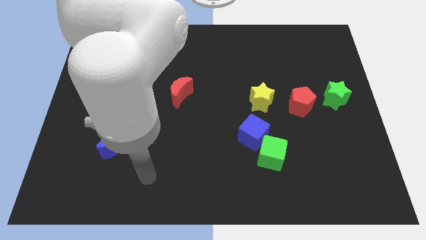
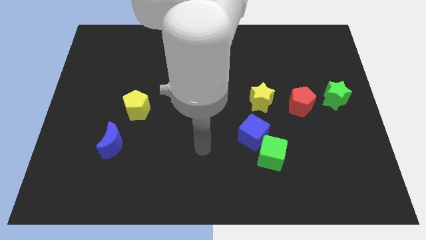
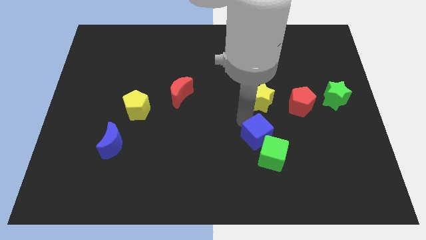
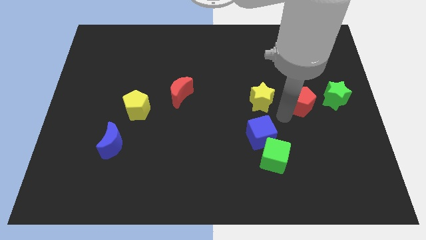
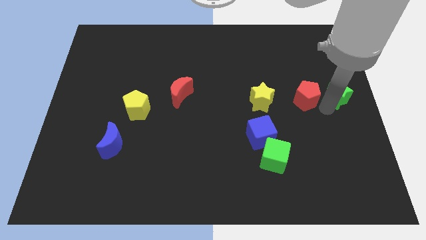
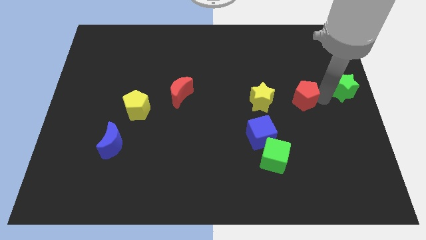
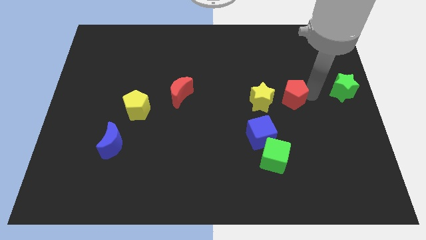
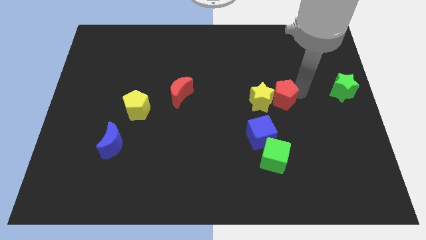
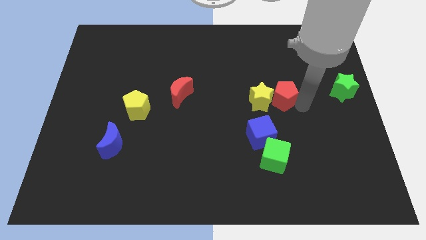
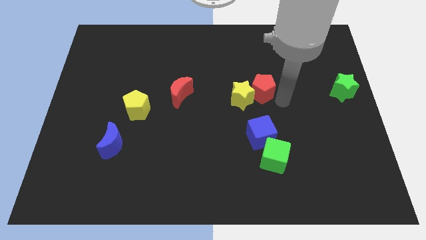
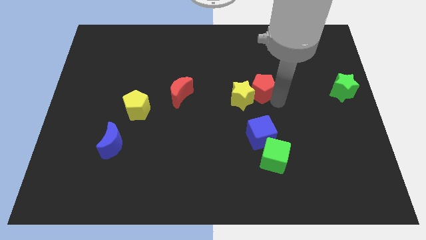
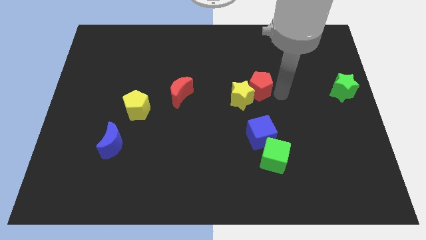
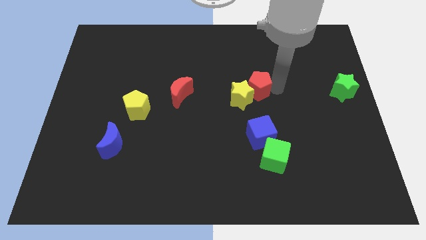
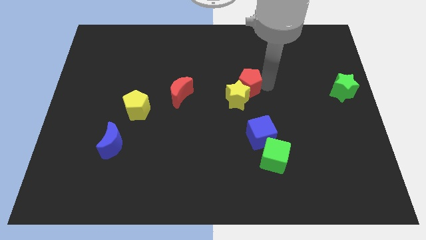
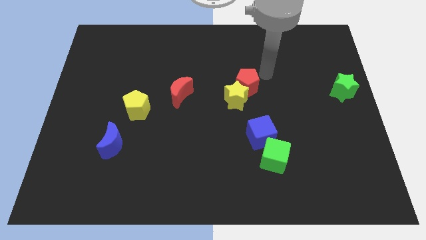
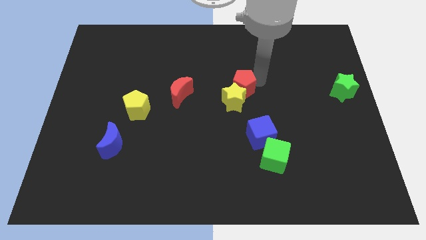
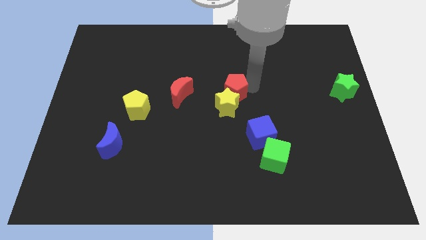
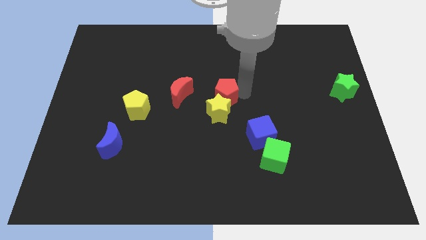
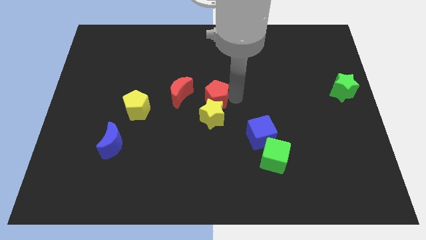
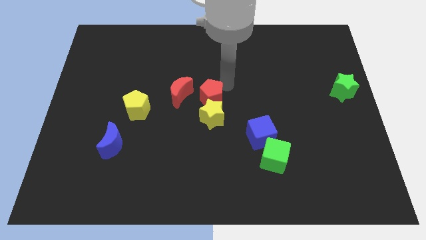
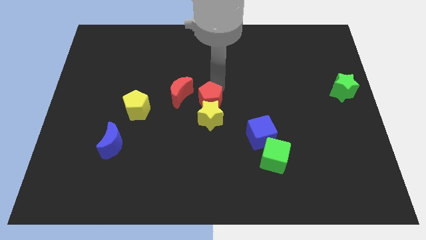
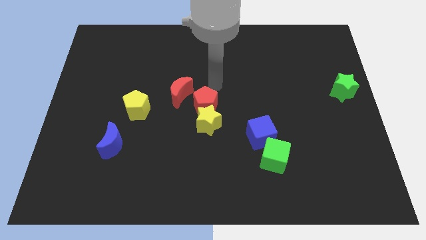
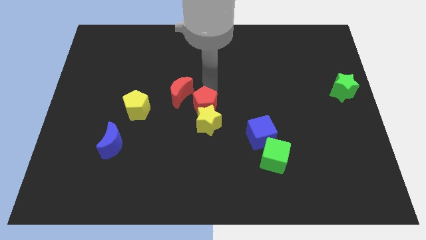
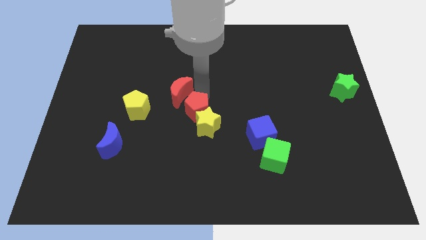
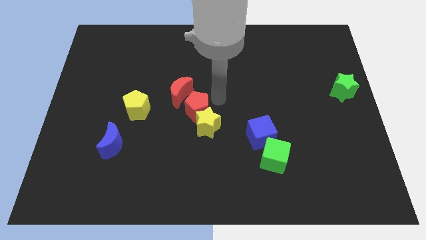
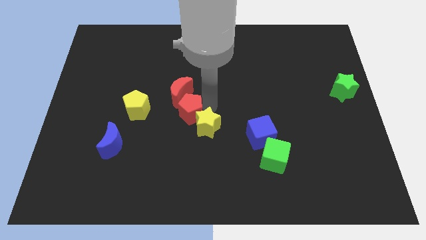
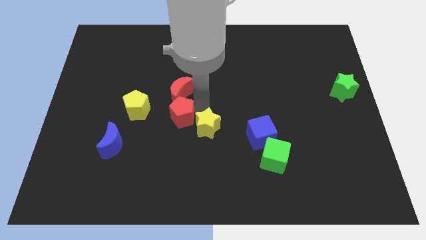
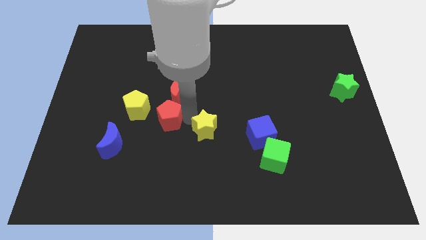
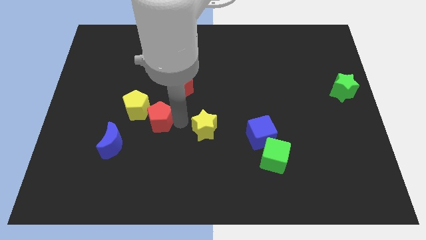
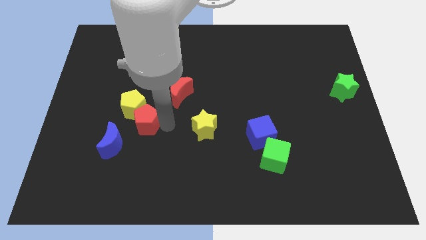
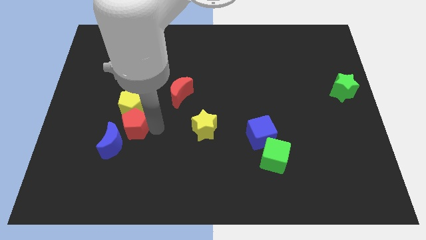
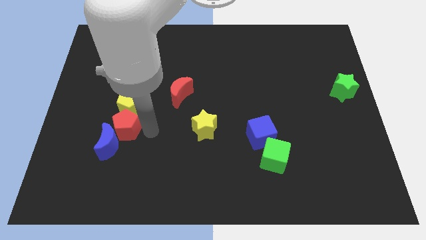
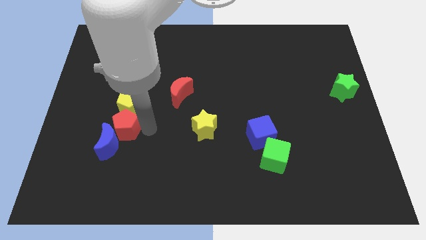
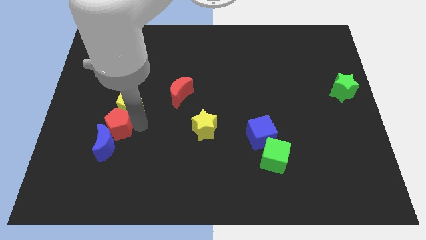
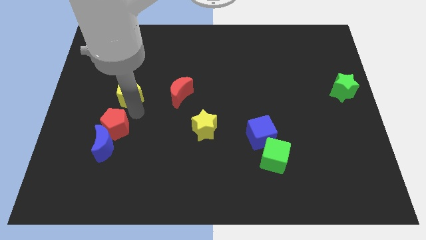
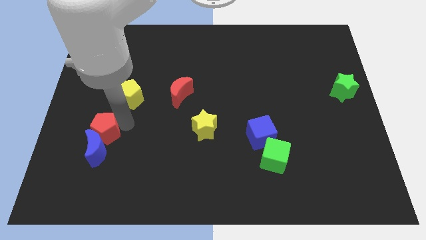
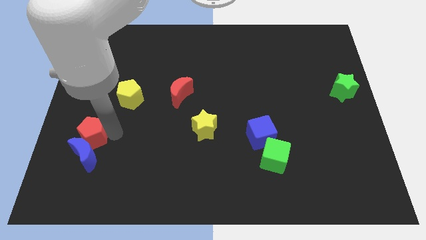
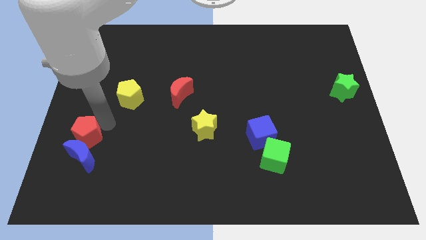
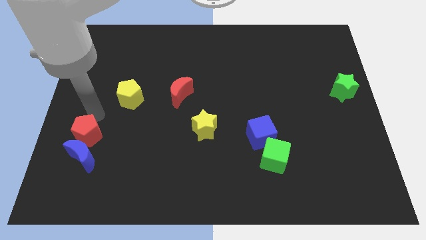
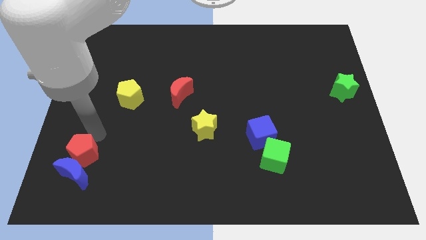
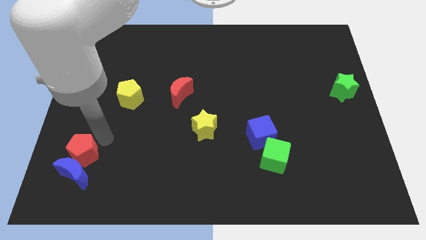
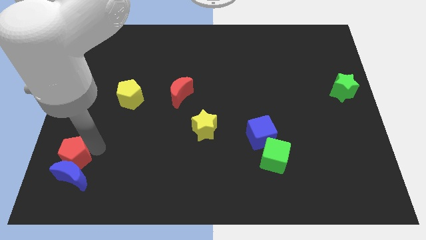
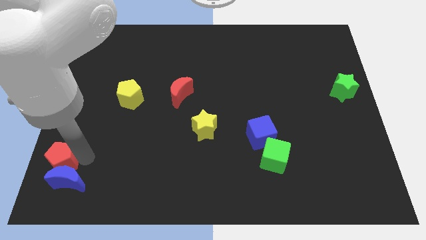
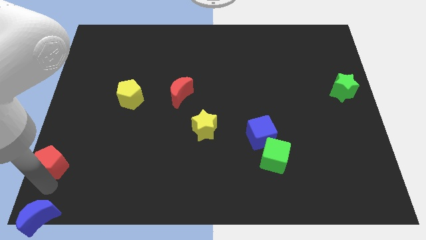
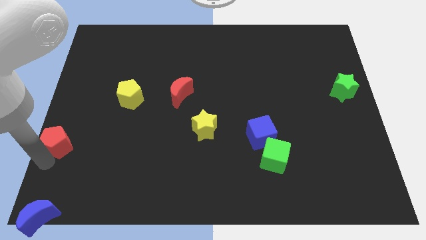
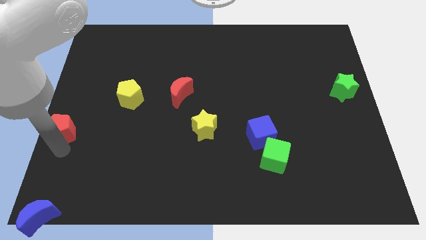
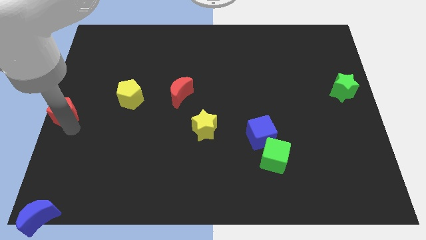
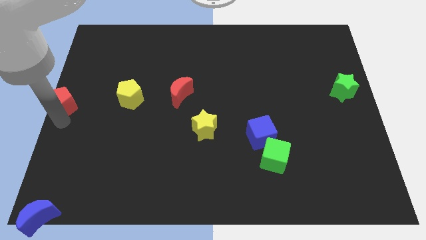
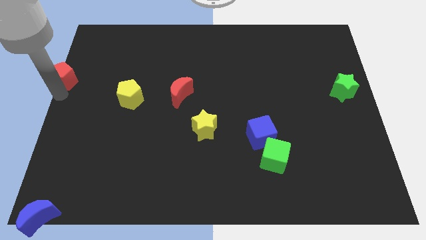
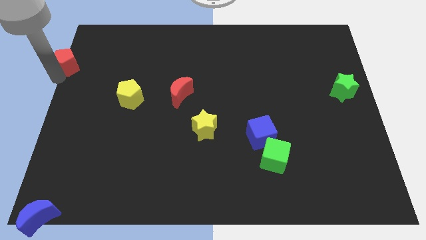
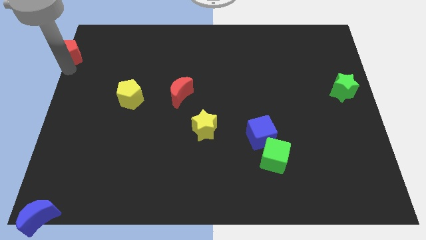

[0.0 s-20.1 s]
push the red pentagon to the top left corner

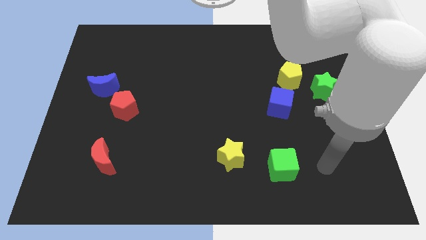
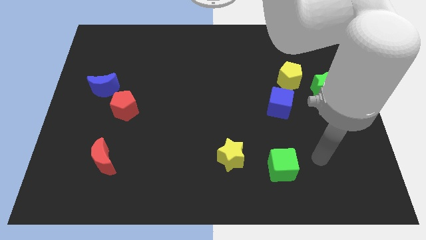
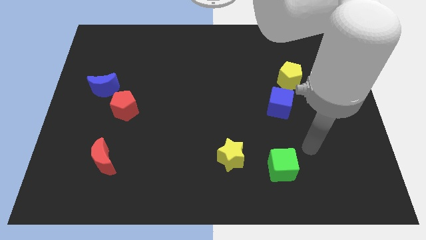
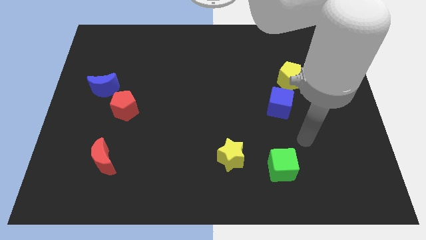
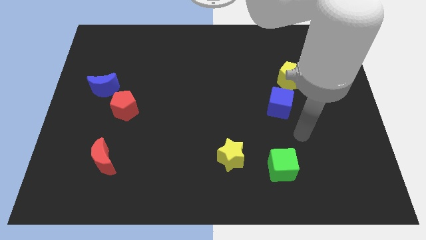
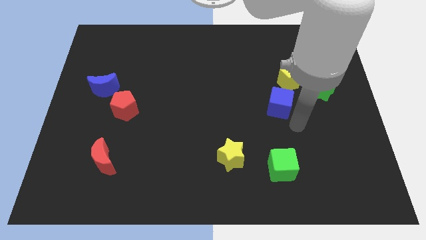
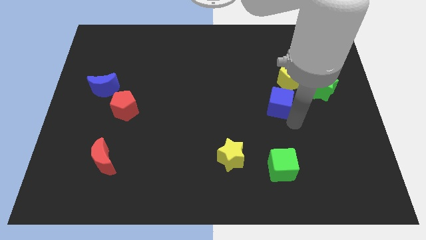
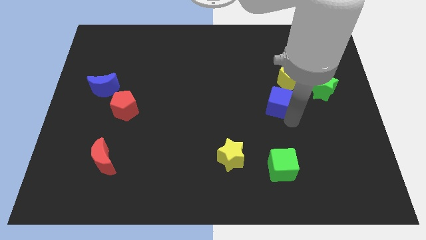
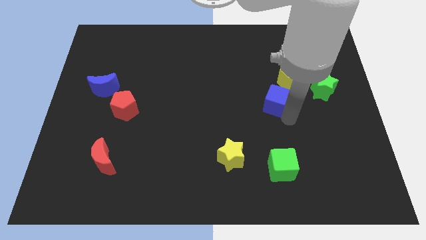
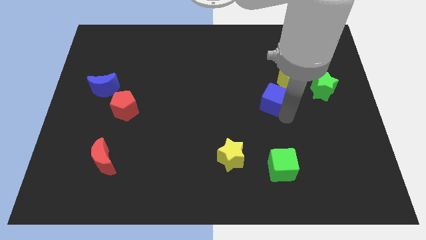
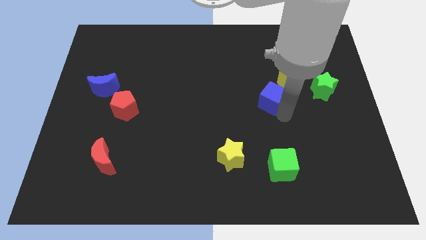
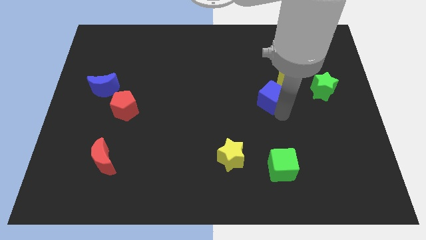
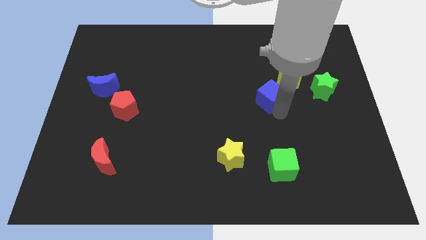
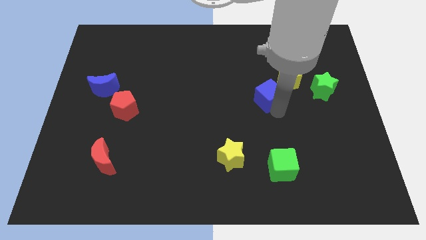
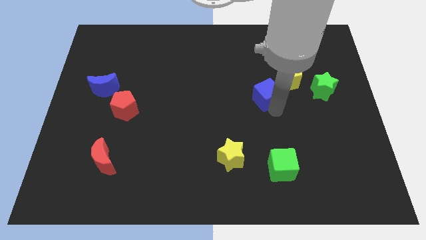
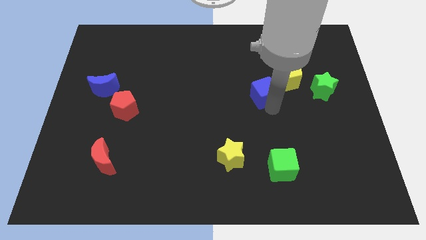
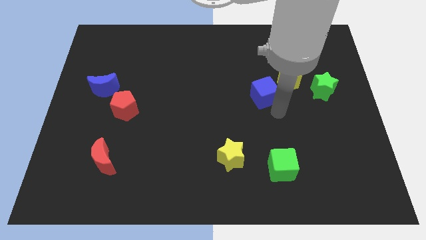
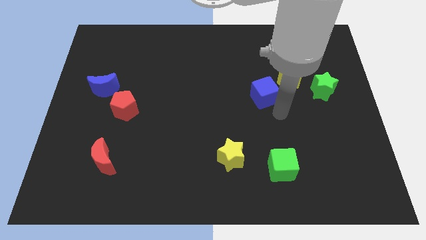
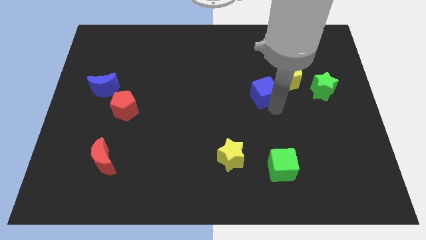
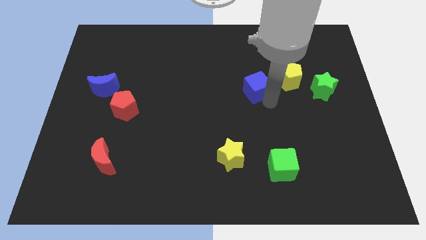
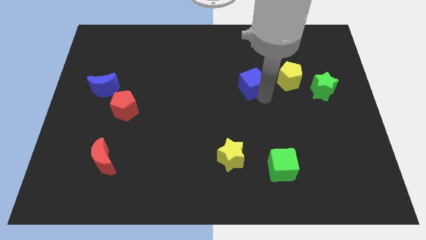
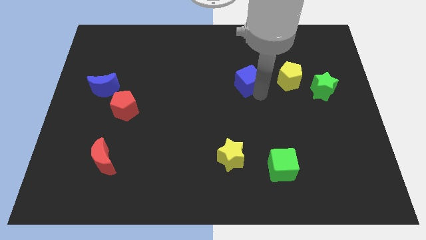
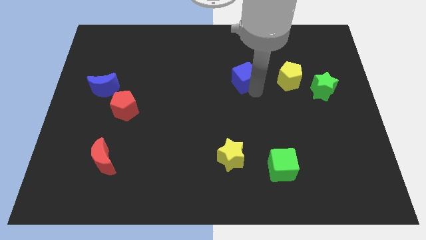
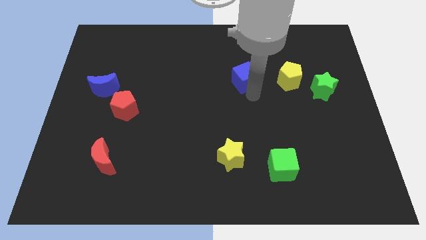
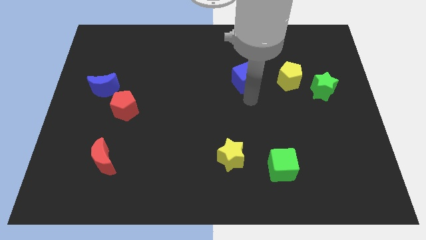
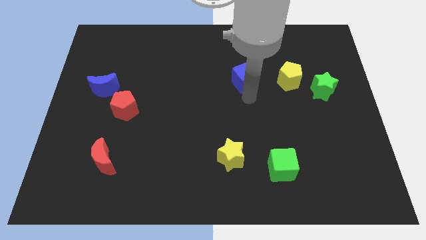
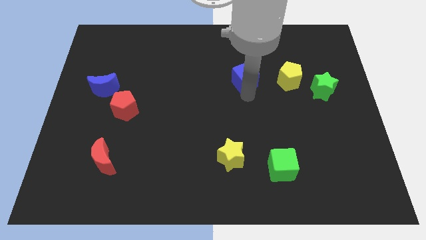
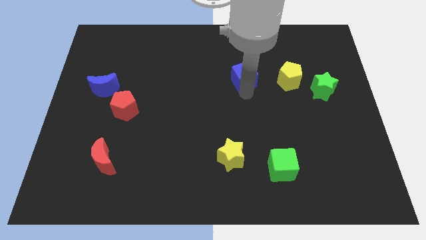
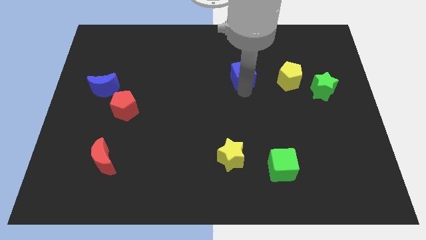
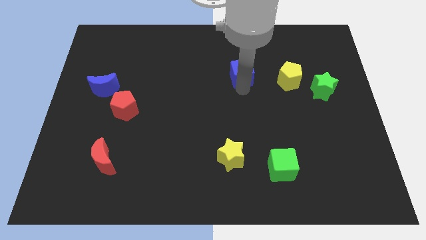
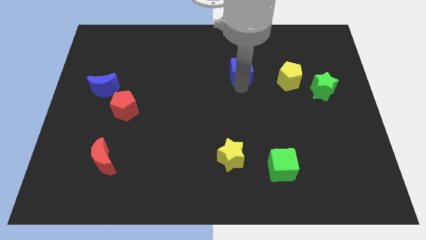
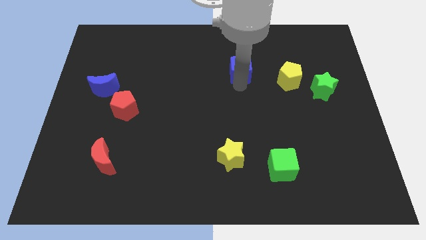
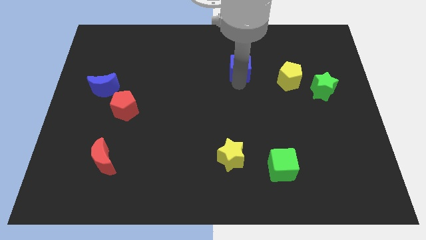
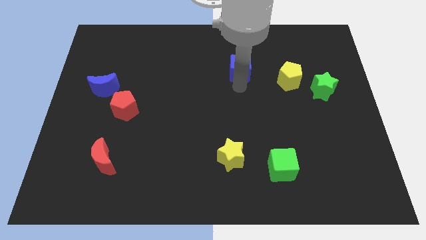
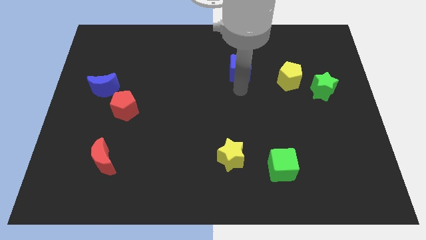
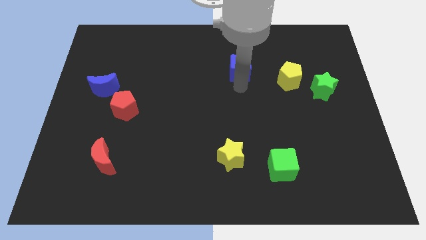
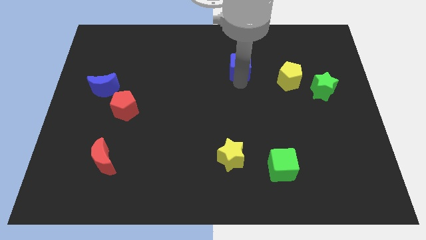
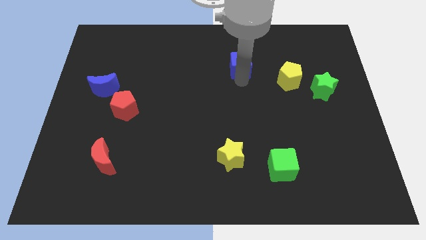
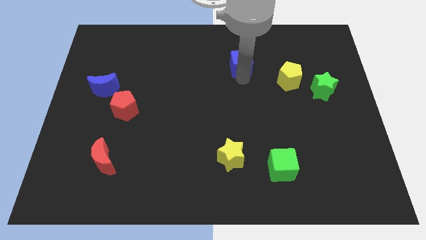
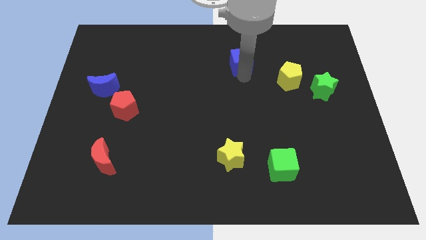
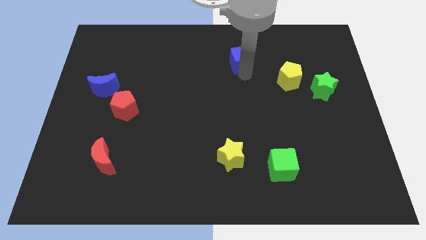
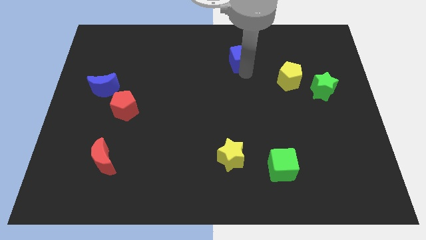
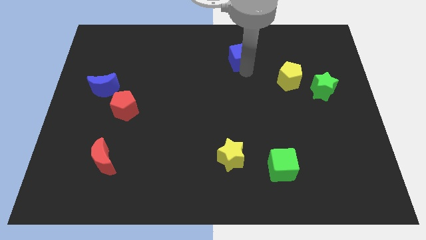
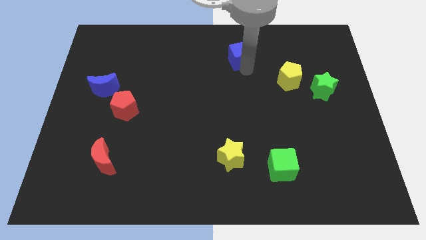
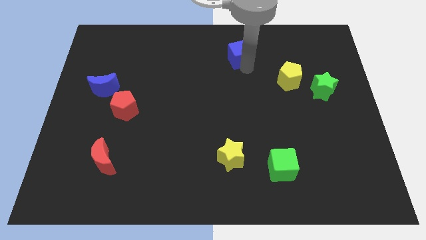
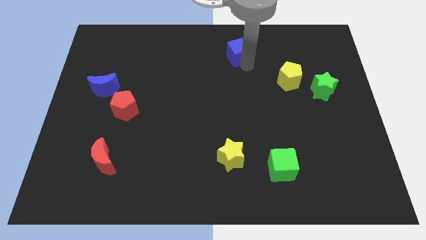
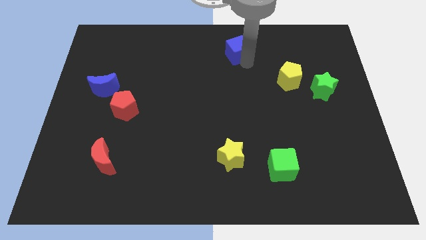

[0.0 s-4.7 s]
push the blue cube to the top
